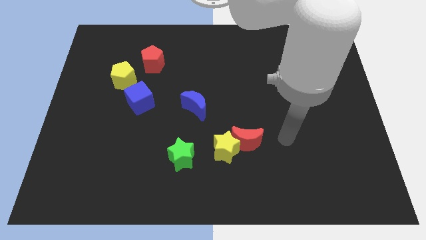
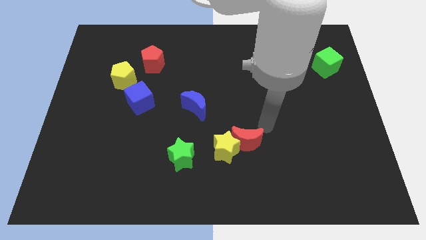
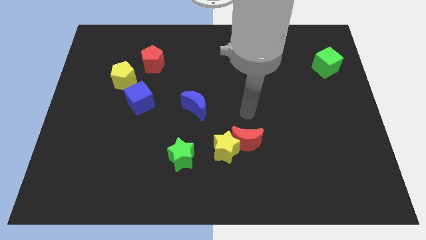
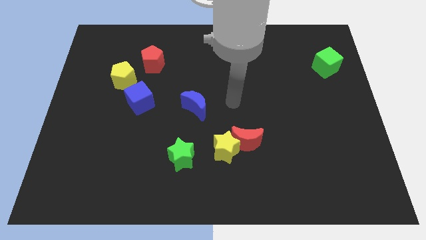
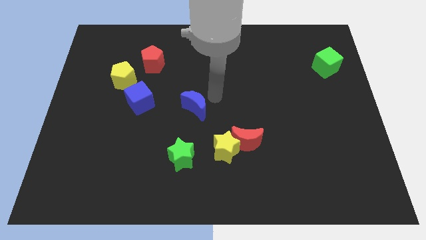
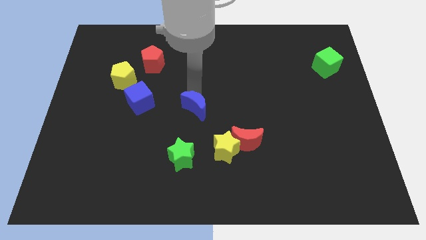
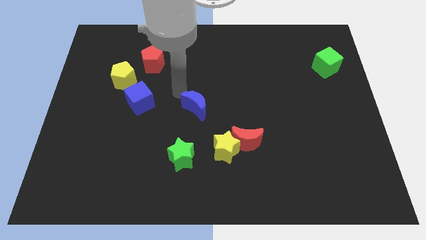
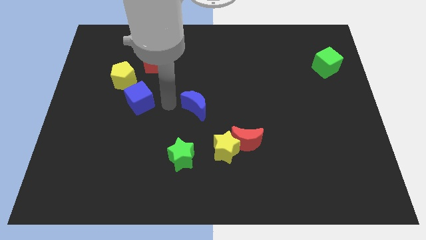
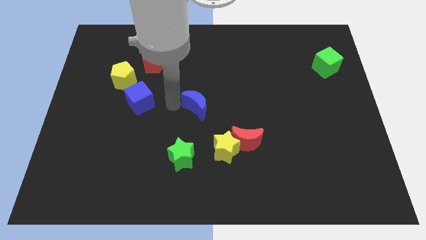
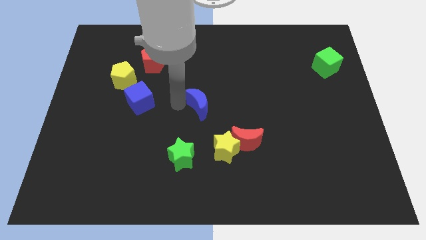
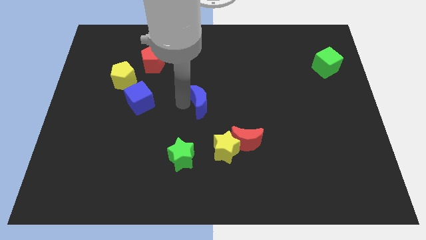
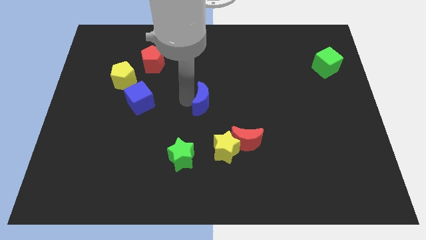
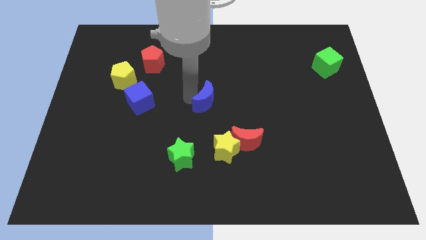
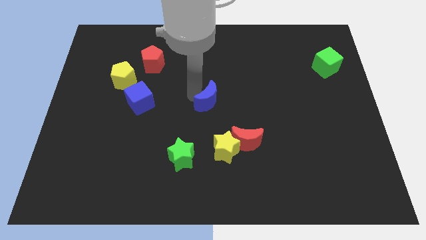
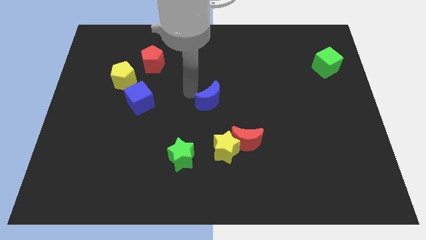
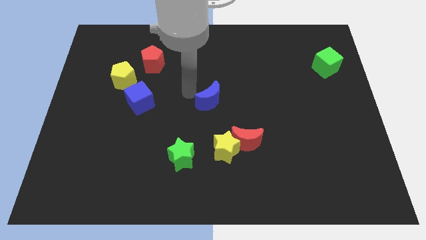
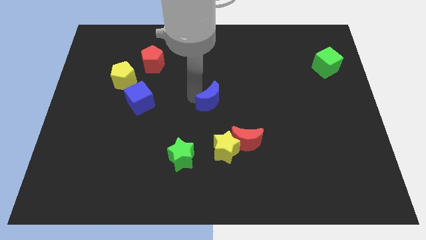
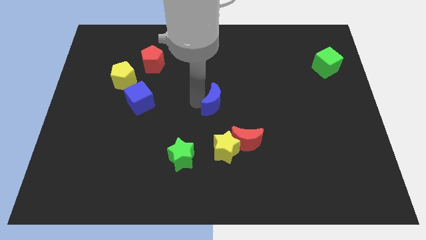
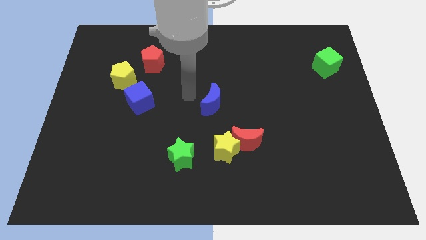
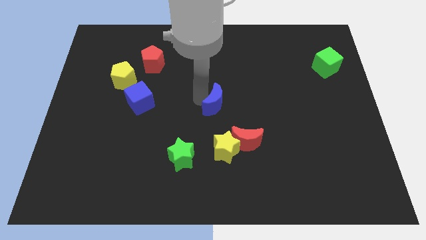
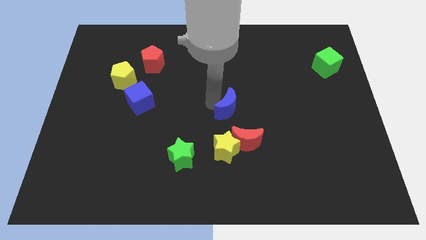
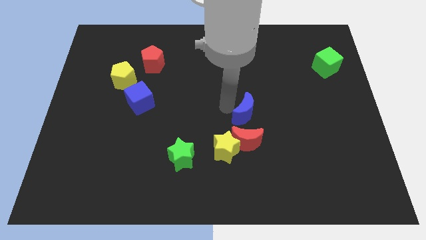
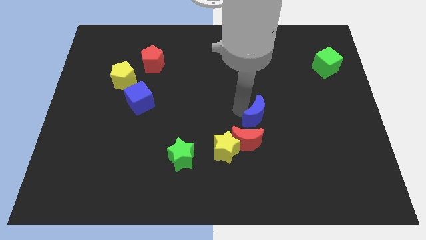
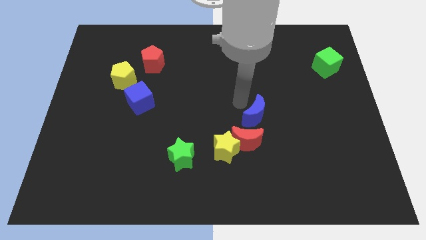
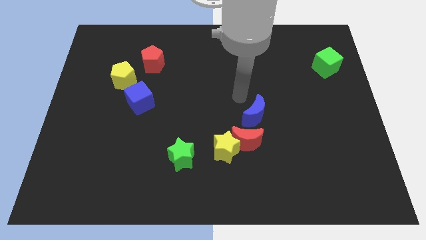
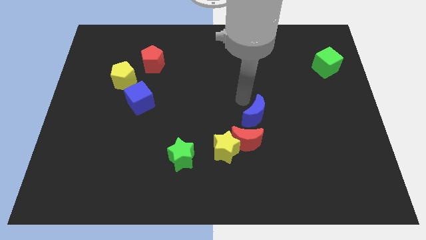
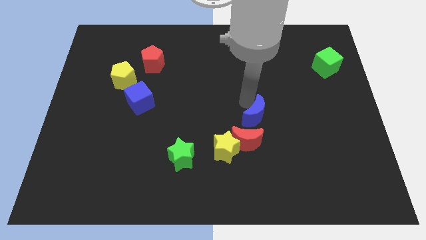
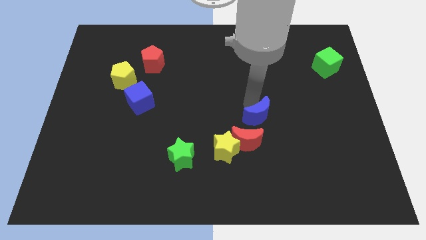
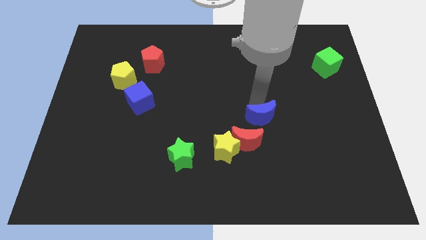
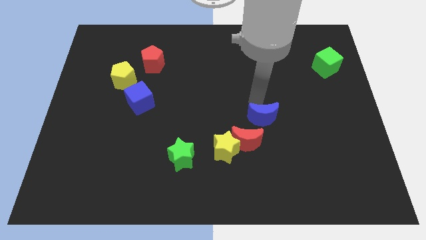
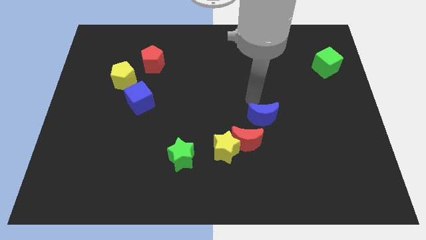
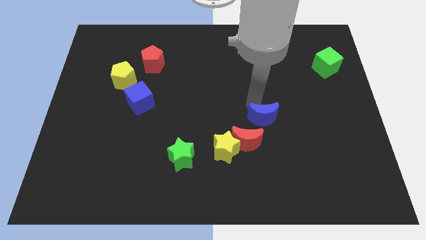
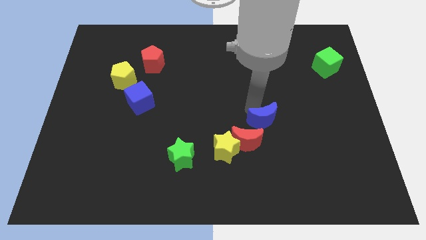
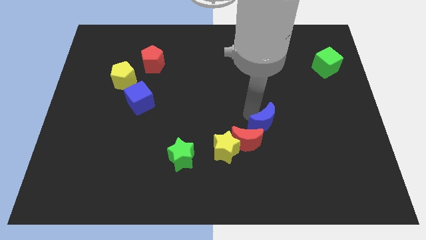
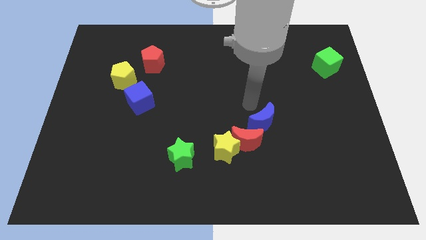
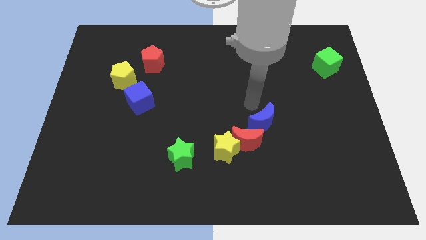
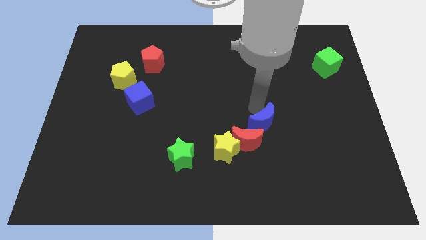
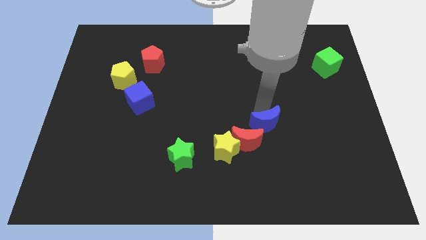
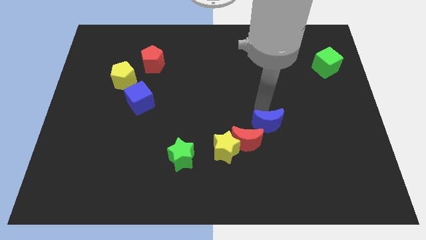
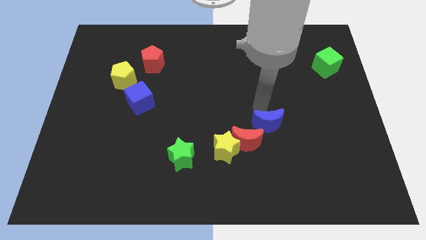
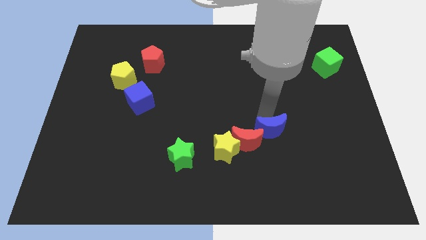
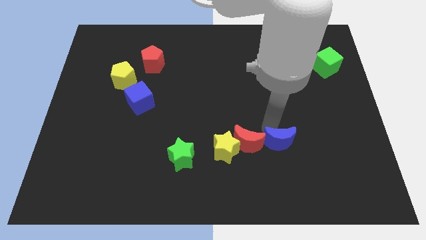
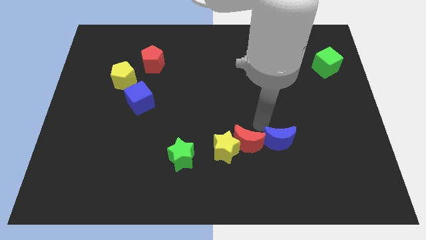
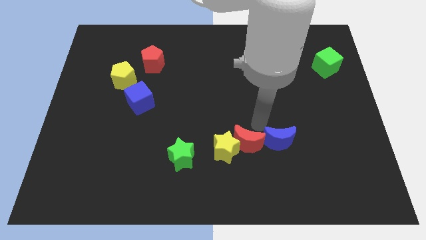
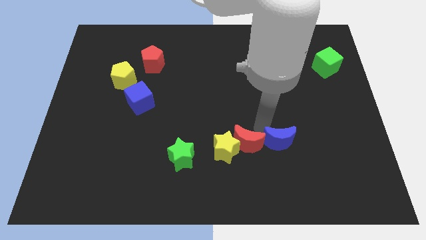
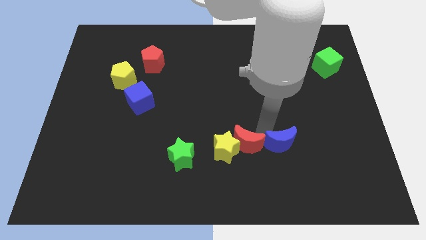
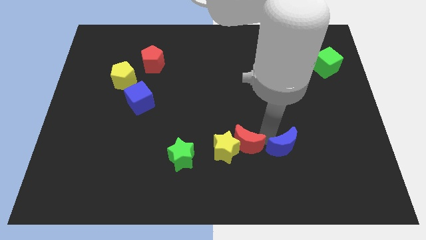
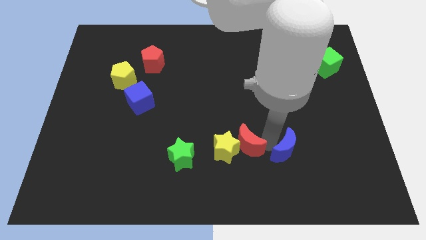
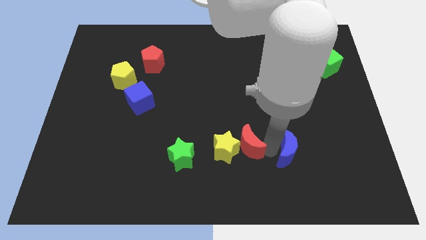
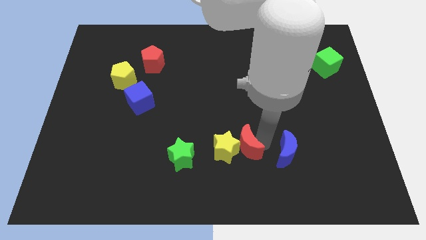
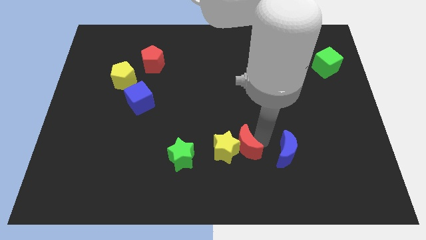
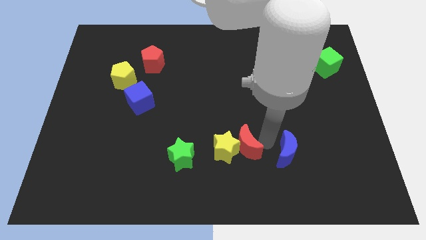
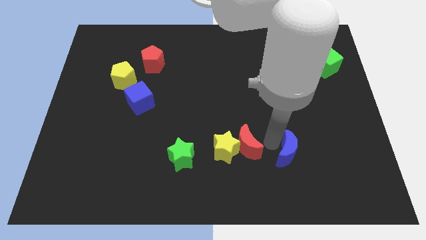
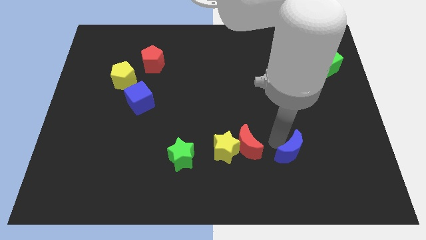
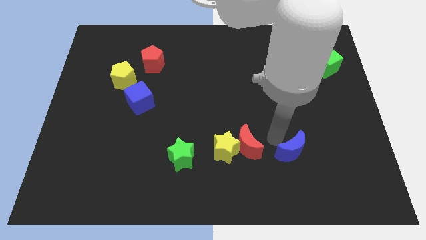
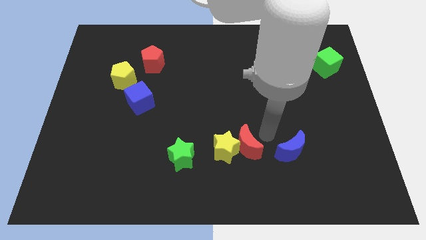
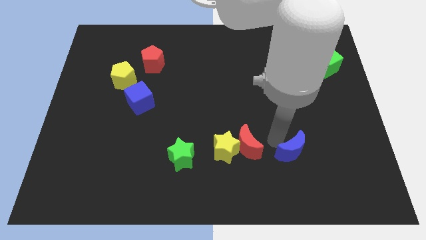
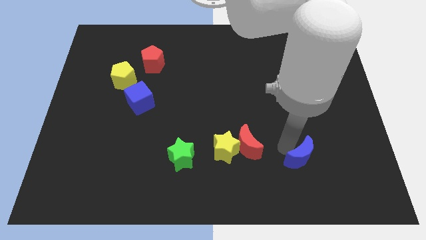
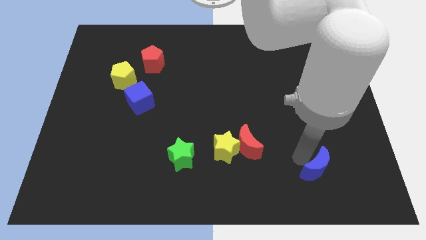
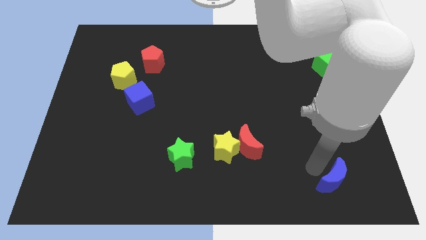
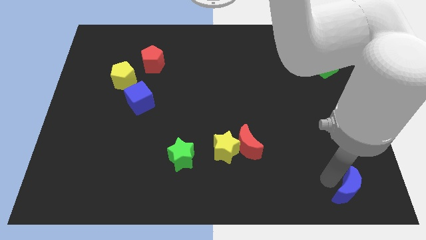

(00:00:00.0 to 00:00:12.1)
push the blue moon to the lower right corner

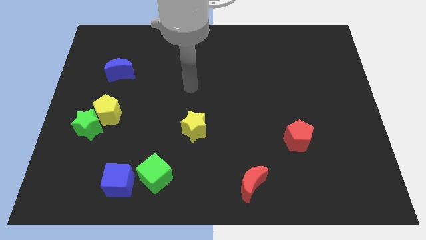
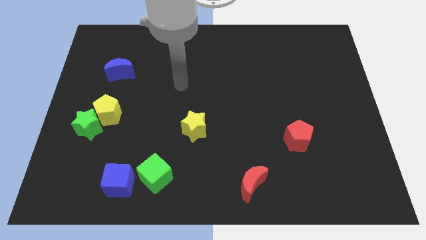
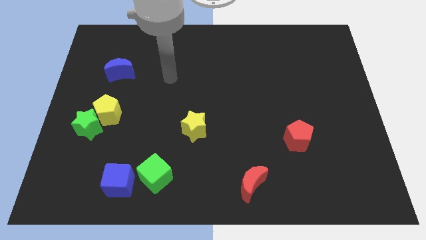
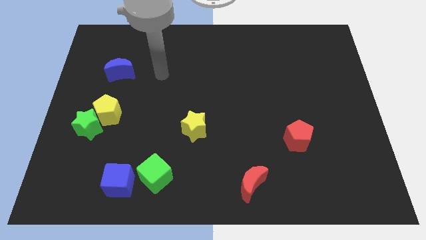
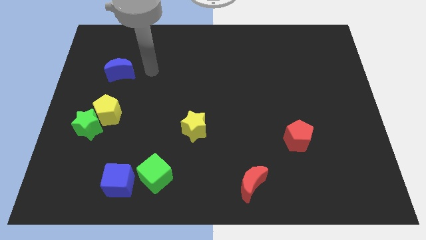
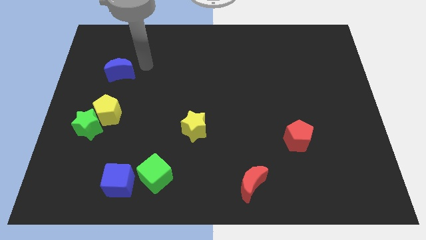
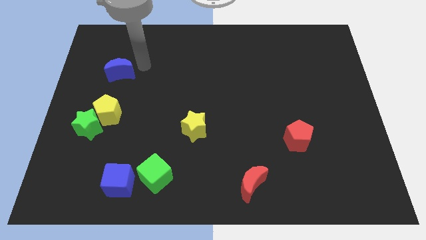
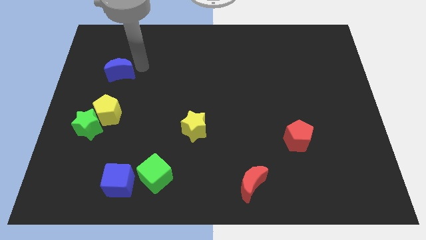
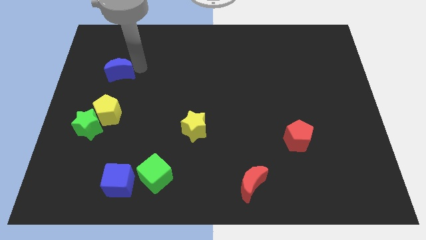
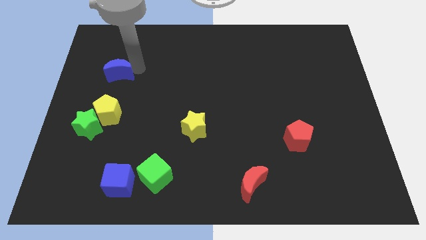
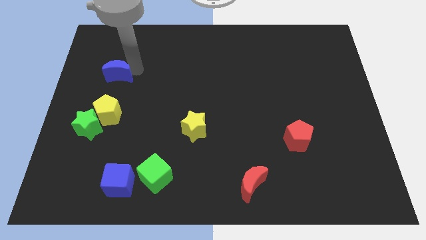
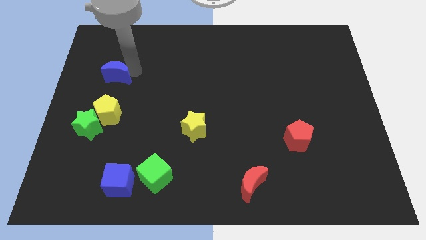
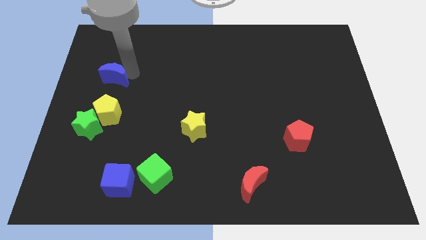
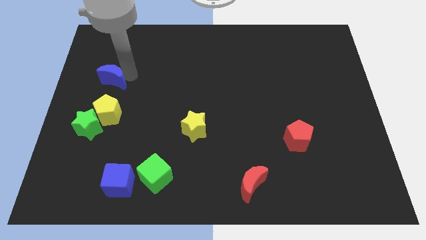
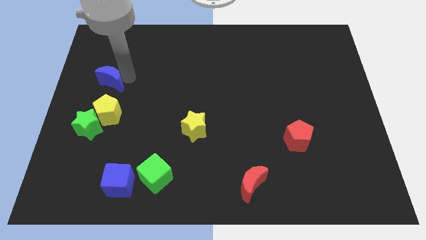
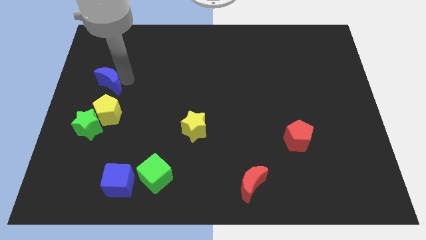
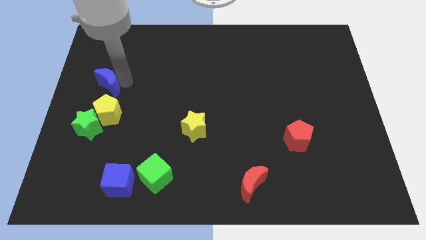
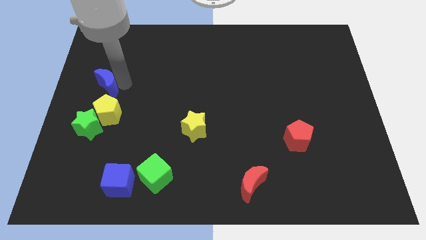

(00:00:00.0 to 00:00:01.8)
slide the blue moon to the center left
